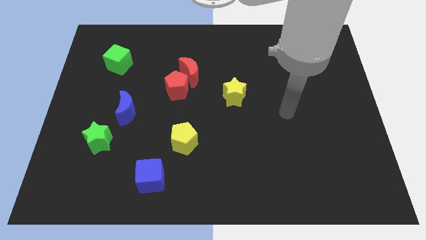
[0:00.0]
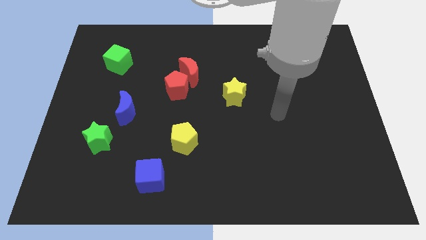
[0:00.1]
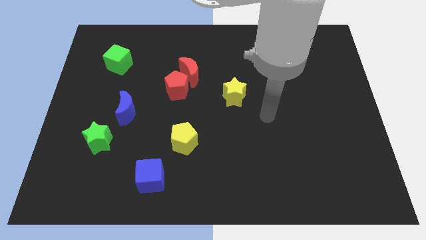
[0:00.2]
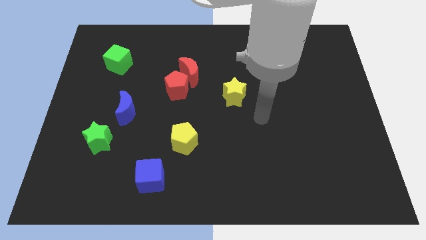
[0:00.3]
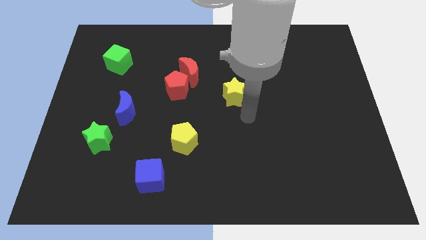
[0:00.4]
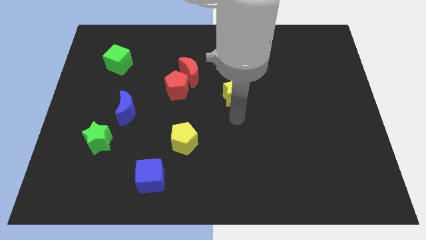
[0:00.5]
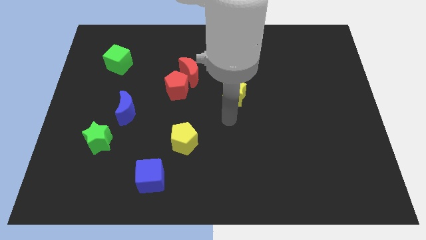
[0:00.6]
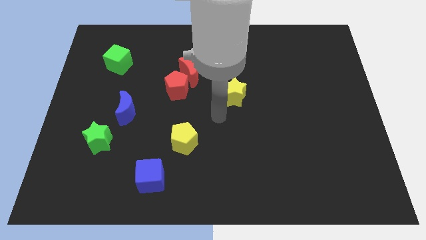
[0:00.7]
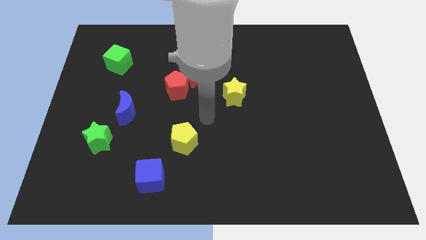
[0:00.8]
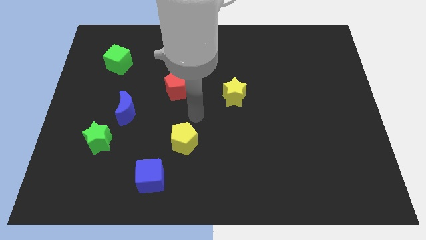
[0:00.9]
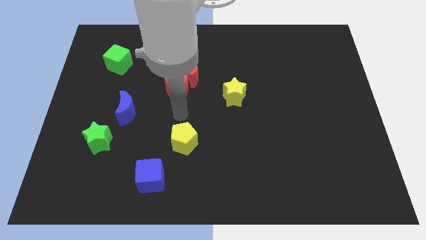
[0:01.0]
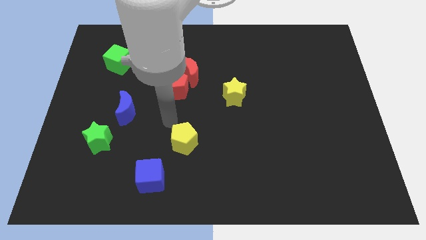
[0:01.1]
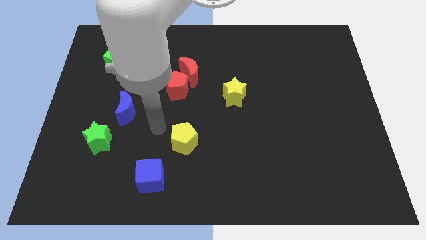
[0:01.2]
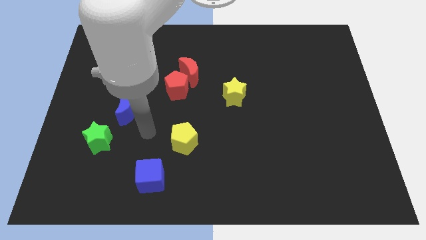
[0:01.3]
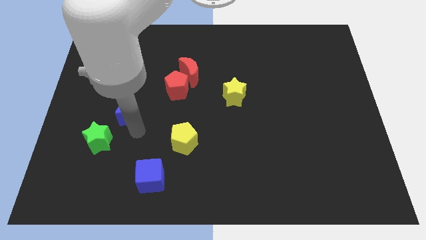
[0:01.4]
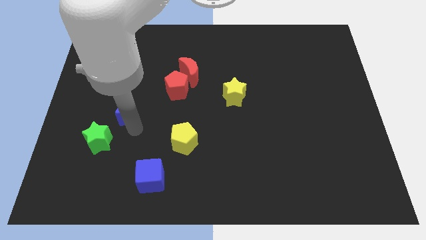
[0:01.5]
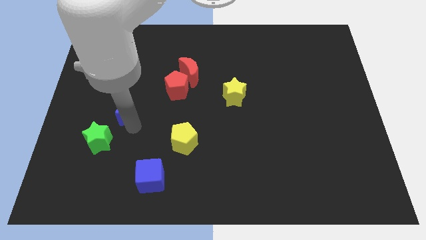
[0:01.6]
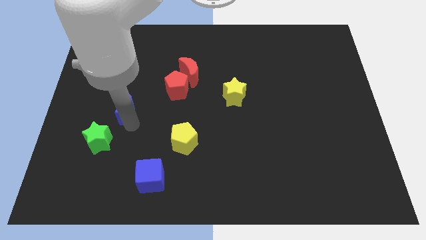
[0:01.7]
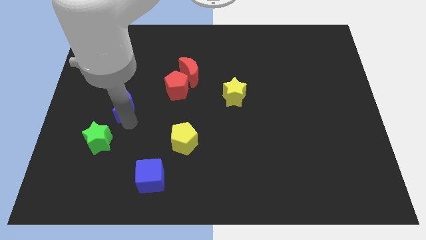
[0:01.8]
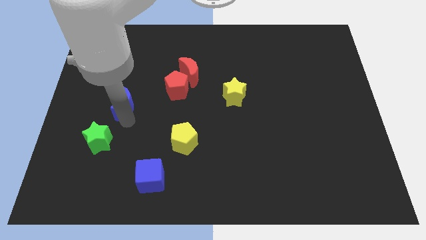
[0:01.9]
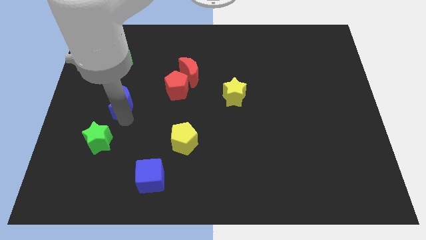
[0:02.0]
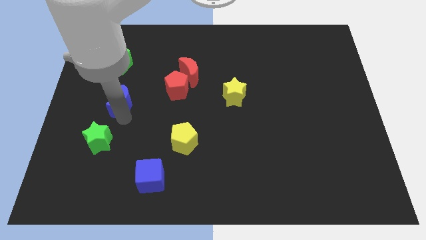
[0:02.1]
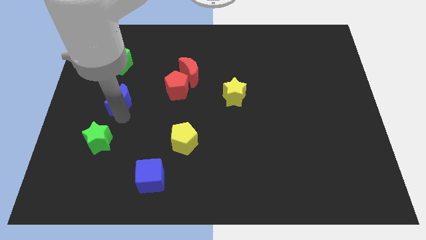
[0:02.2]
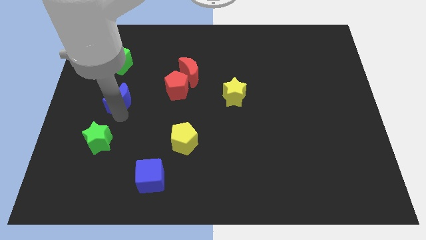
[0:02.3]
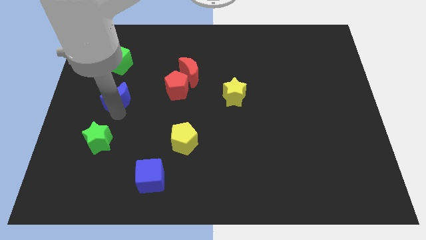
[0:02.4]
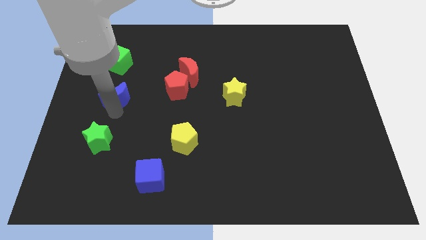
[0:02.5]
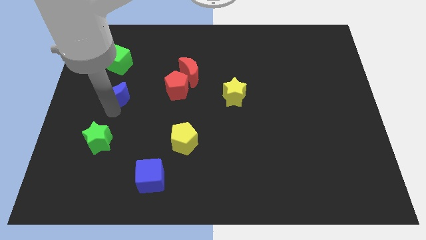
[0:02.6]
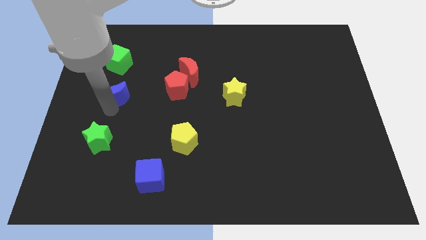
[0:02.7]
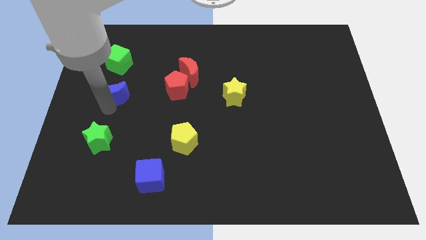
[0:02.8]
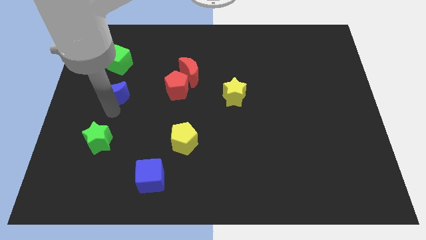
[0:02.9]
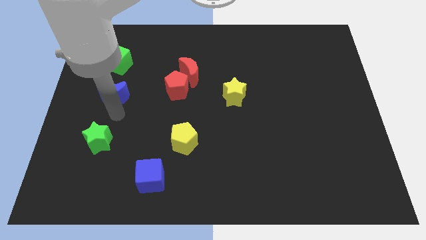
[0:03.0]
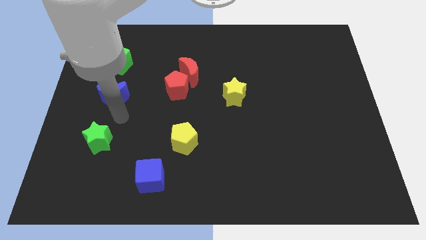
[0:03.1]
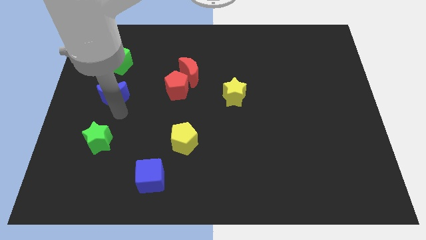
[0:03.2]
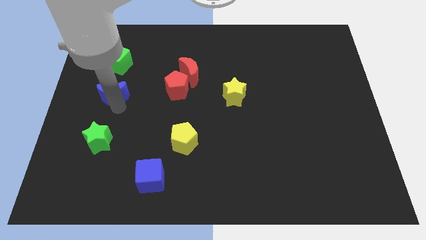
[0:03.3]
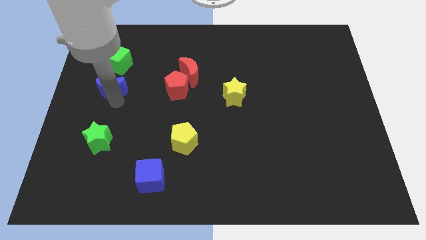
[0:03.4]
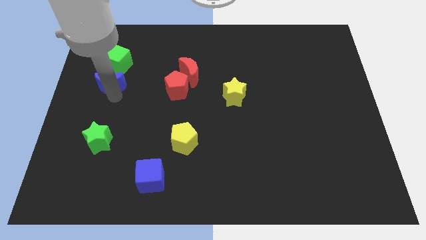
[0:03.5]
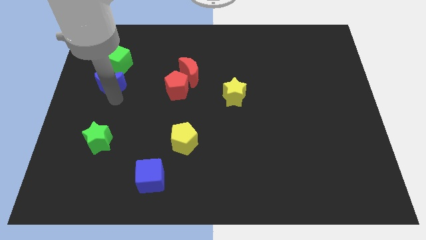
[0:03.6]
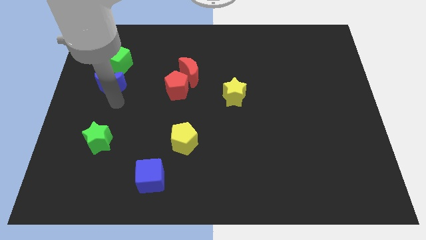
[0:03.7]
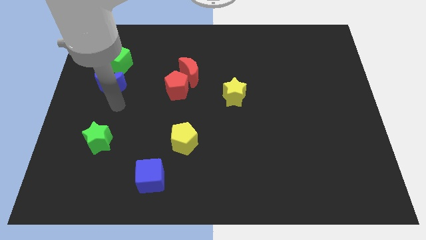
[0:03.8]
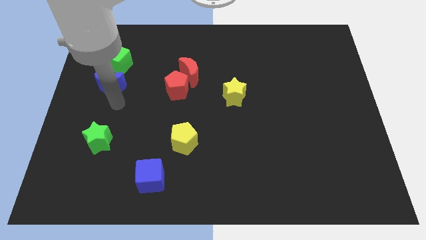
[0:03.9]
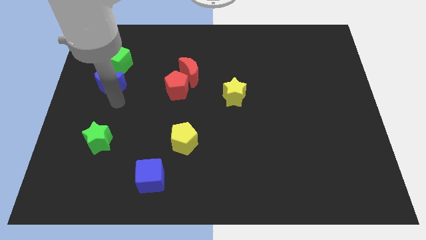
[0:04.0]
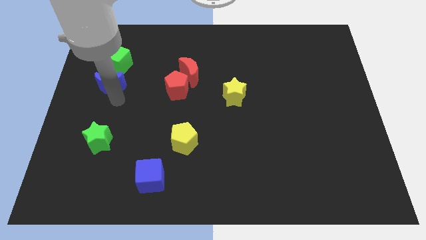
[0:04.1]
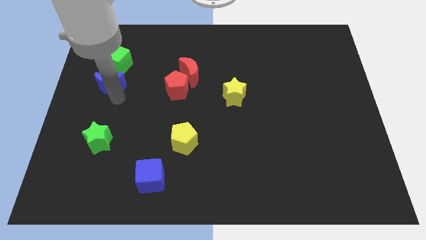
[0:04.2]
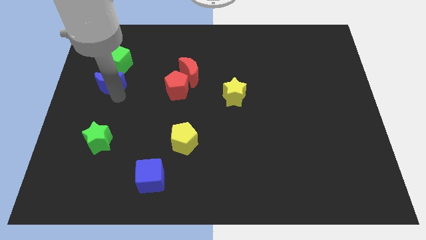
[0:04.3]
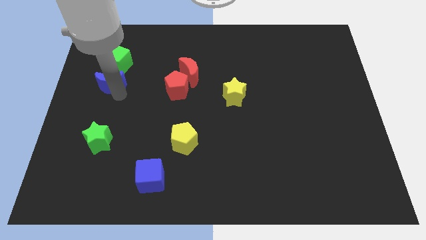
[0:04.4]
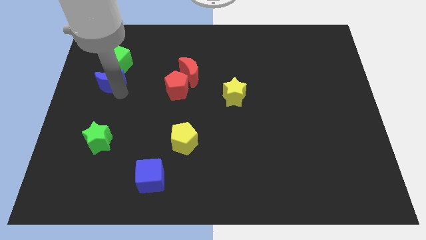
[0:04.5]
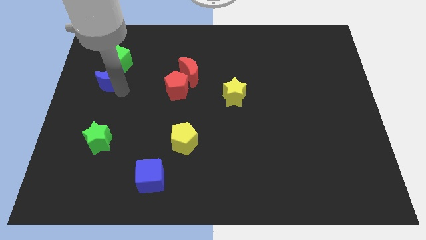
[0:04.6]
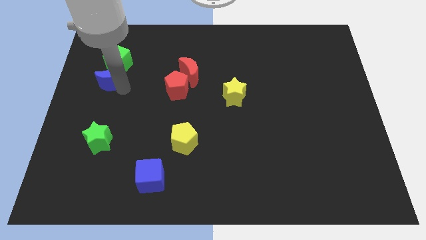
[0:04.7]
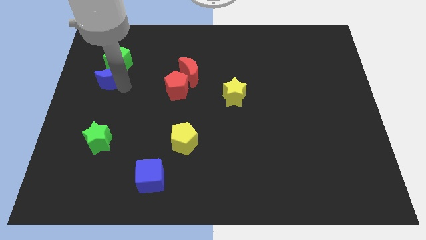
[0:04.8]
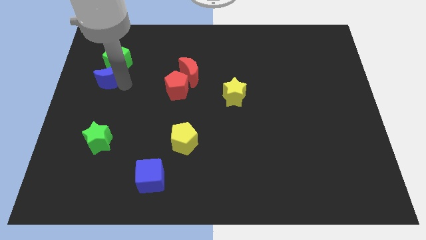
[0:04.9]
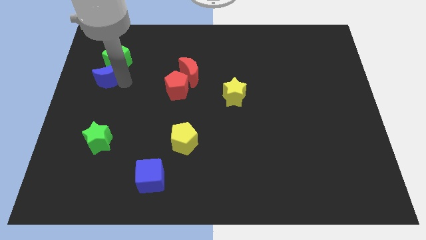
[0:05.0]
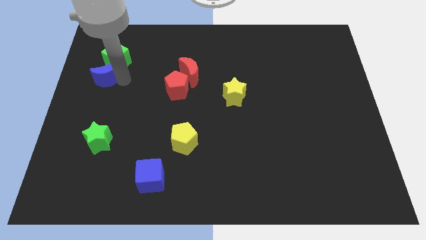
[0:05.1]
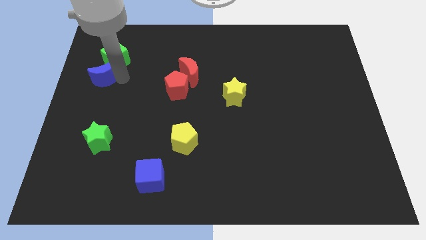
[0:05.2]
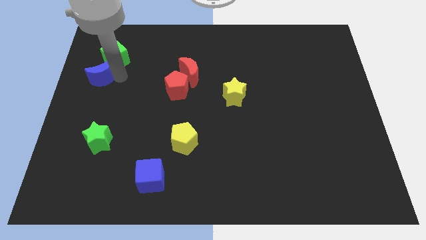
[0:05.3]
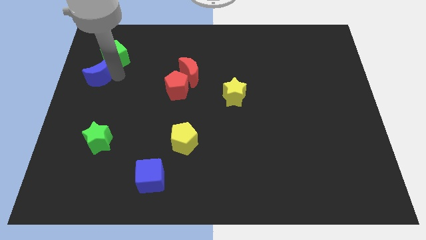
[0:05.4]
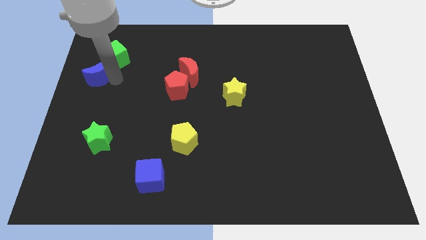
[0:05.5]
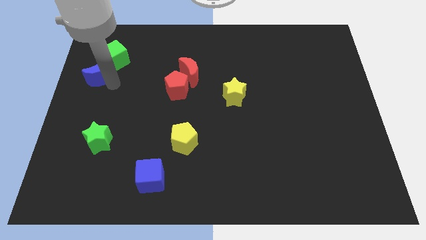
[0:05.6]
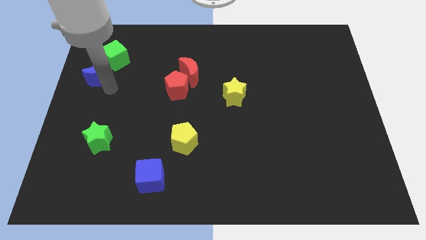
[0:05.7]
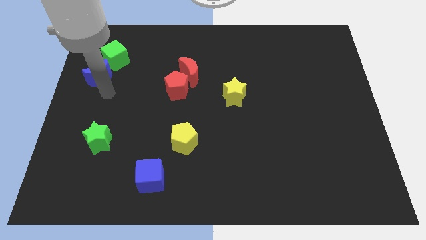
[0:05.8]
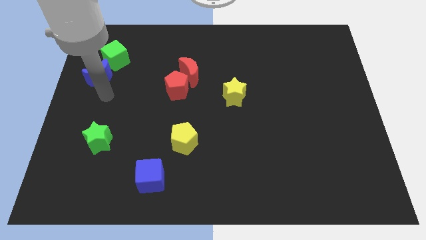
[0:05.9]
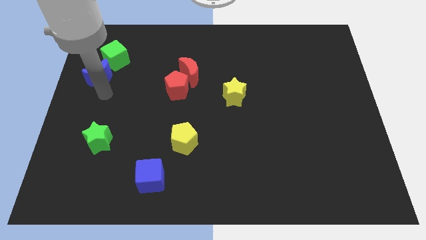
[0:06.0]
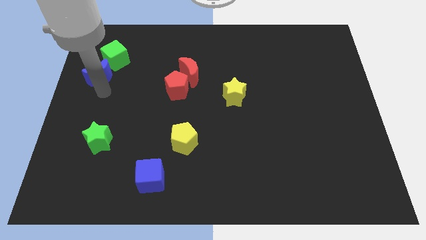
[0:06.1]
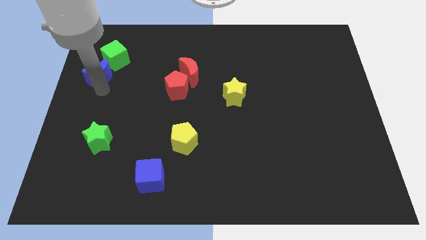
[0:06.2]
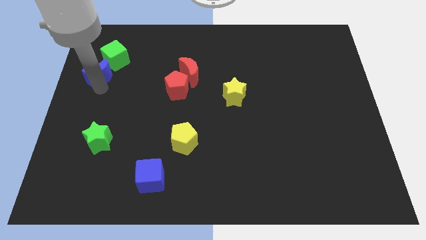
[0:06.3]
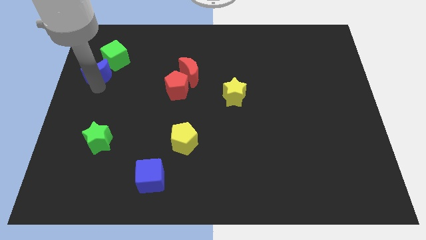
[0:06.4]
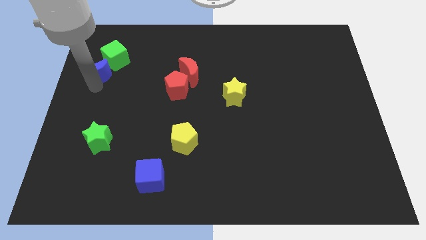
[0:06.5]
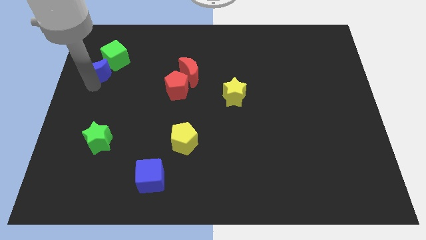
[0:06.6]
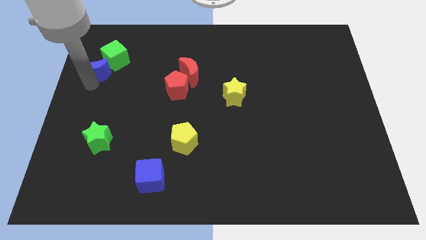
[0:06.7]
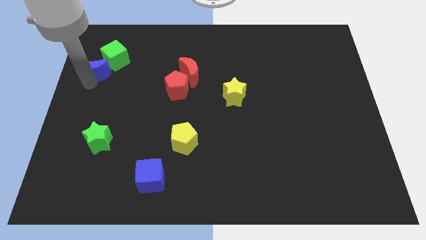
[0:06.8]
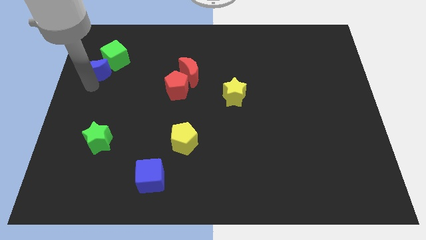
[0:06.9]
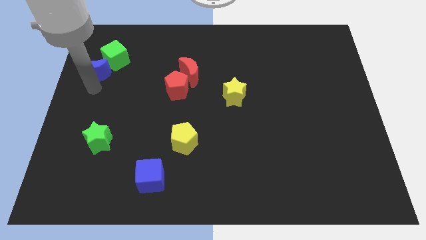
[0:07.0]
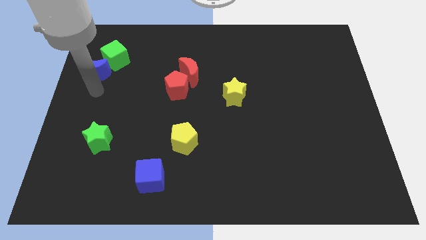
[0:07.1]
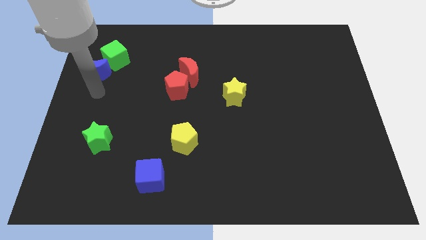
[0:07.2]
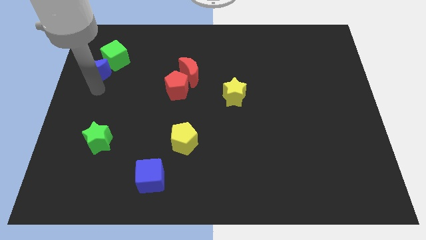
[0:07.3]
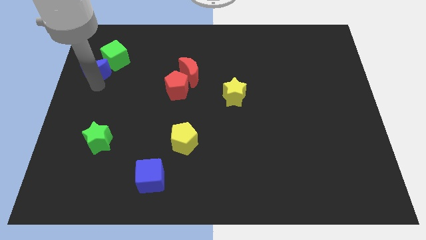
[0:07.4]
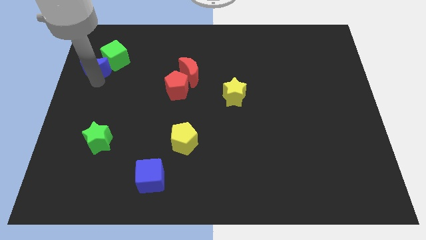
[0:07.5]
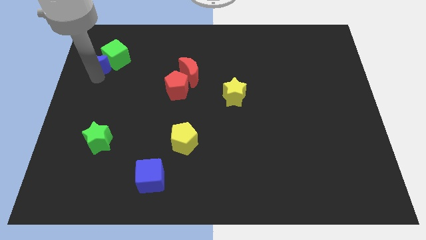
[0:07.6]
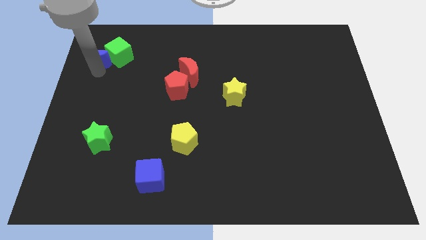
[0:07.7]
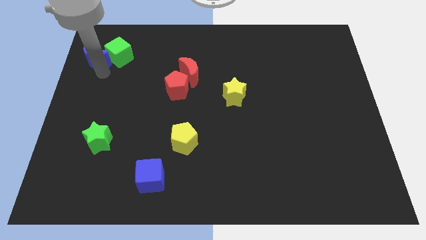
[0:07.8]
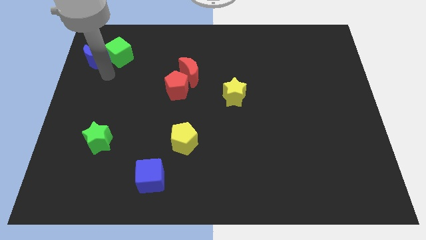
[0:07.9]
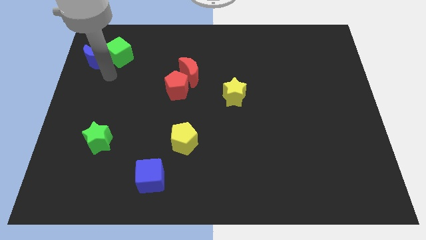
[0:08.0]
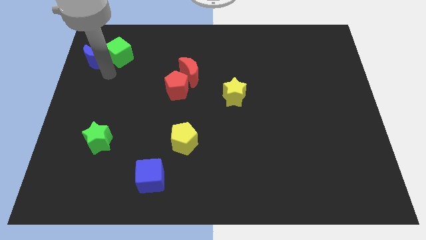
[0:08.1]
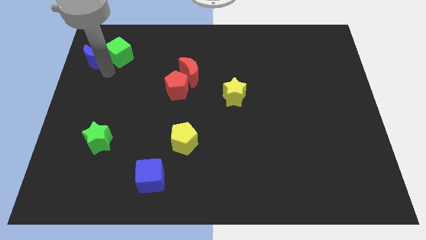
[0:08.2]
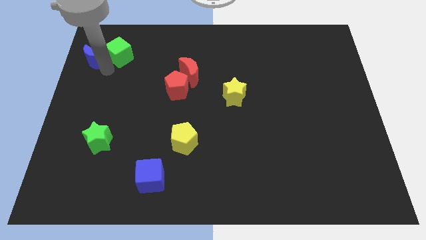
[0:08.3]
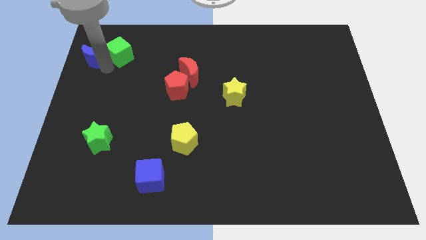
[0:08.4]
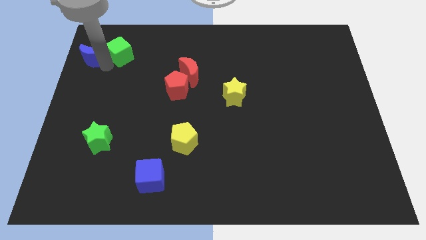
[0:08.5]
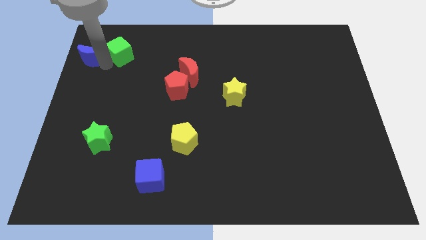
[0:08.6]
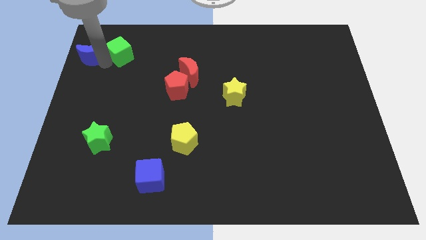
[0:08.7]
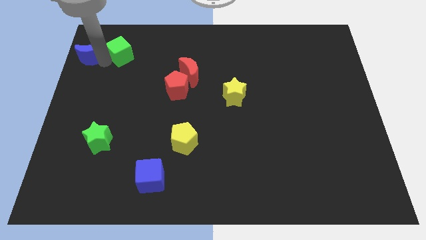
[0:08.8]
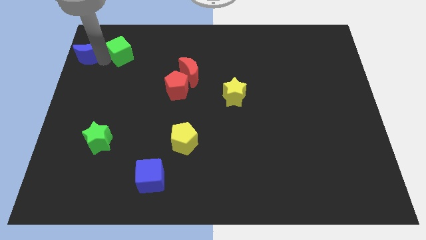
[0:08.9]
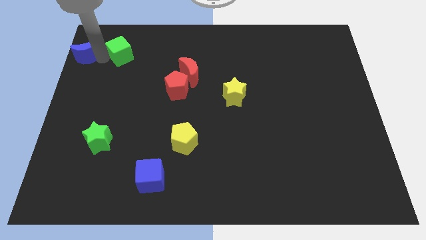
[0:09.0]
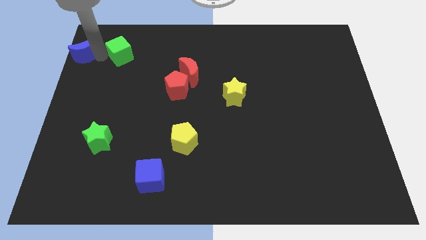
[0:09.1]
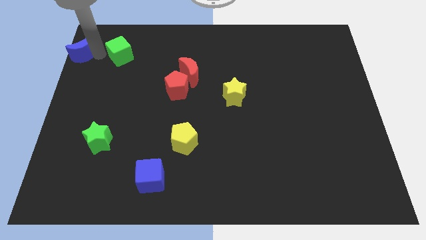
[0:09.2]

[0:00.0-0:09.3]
put the blue moon to the top left corner
